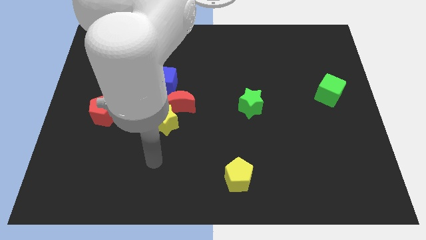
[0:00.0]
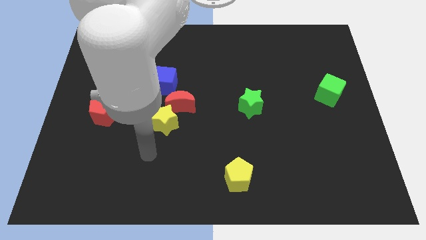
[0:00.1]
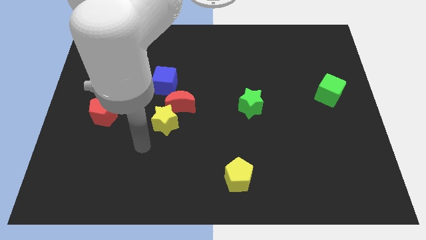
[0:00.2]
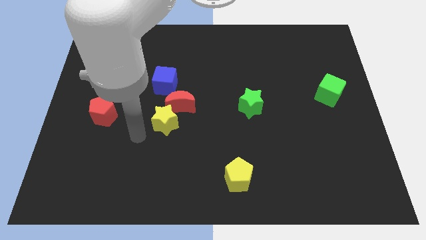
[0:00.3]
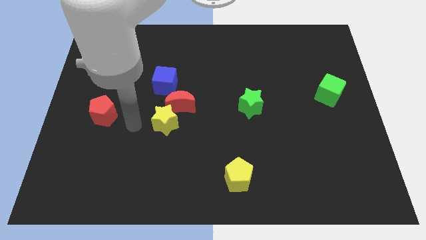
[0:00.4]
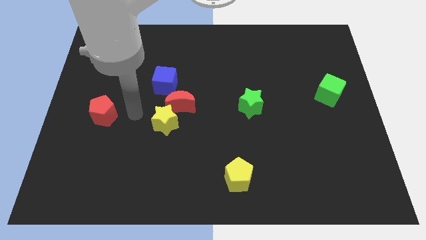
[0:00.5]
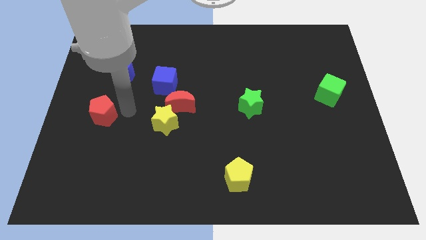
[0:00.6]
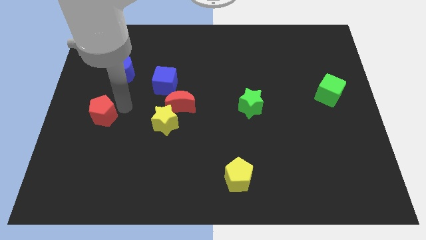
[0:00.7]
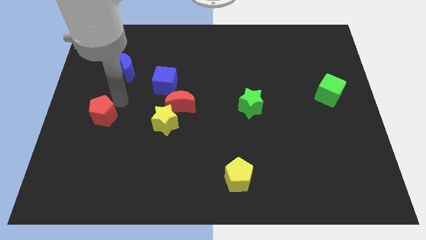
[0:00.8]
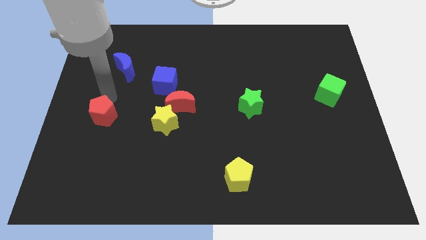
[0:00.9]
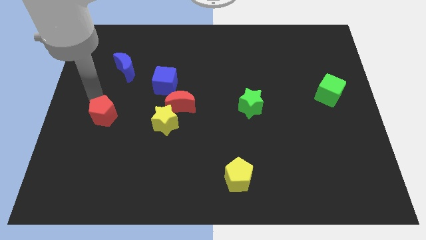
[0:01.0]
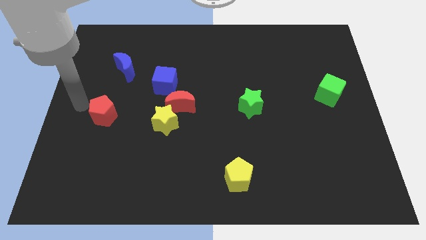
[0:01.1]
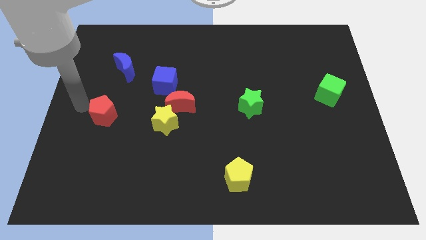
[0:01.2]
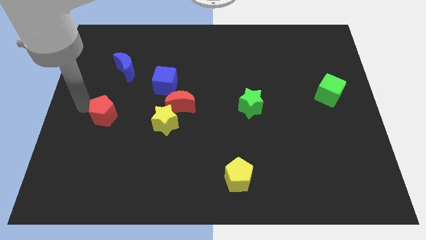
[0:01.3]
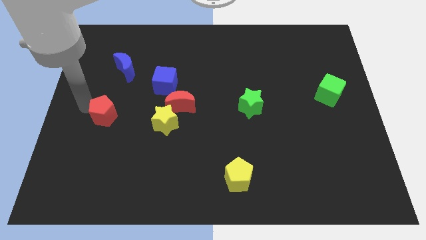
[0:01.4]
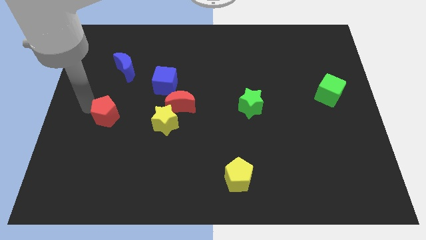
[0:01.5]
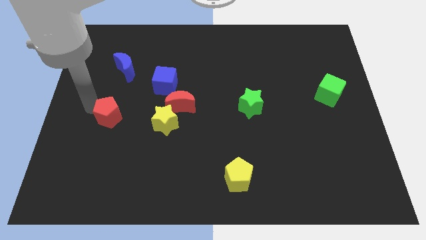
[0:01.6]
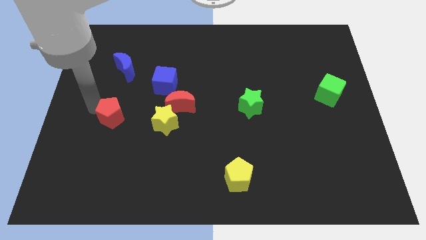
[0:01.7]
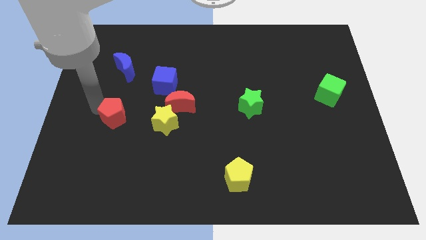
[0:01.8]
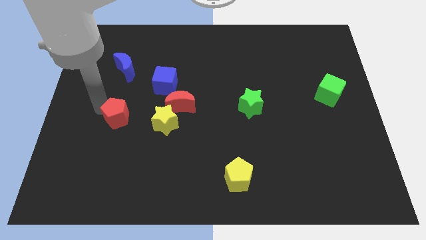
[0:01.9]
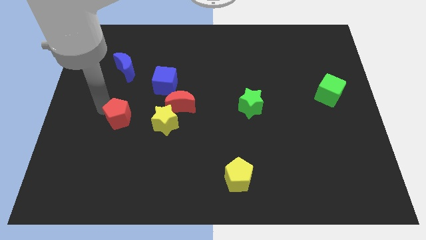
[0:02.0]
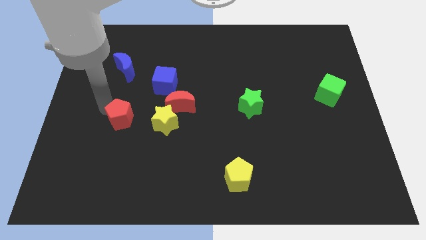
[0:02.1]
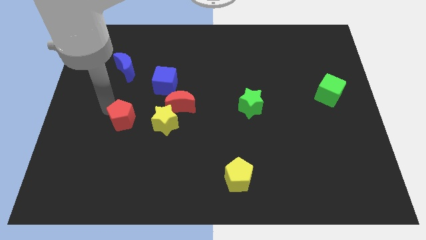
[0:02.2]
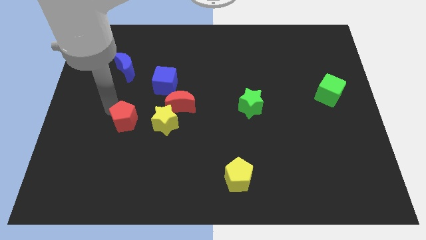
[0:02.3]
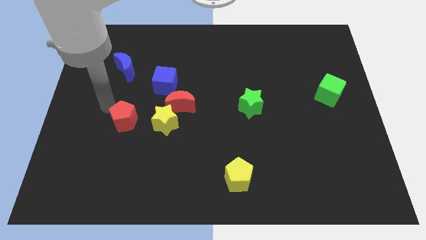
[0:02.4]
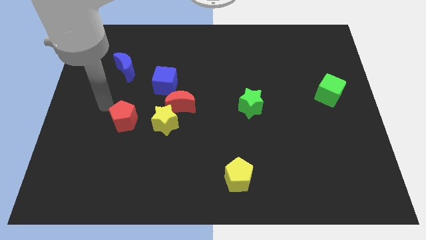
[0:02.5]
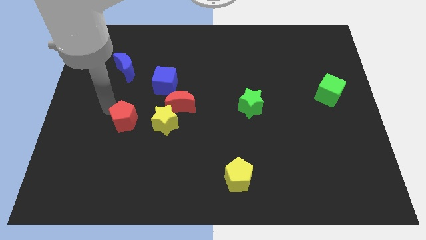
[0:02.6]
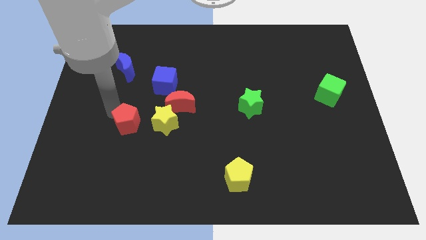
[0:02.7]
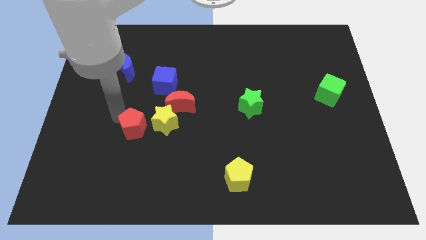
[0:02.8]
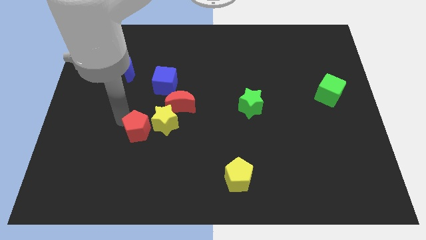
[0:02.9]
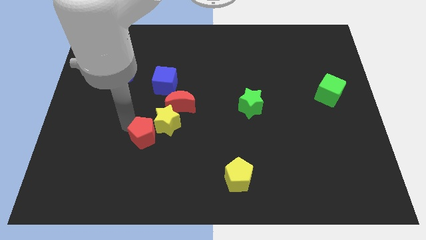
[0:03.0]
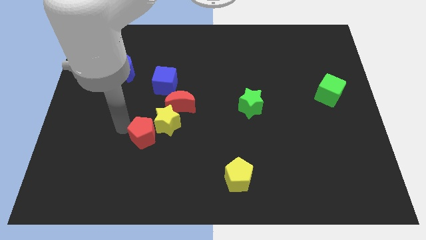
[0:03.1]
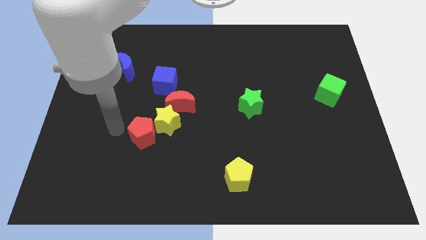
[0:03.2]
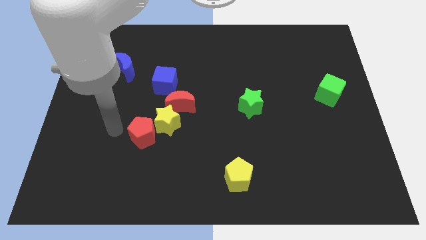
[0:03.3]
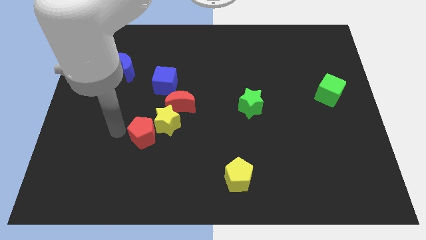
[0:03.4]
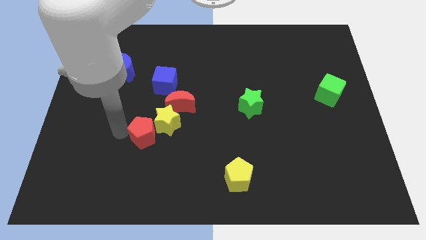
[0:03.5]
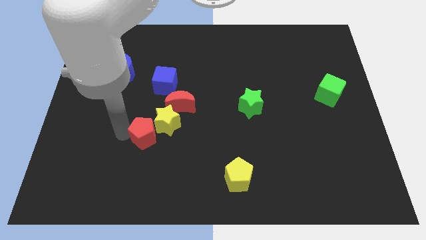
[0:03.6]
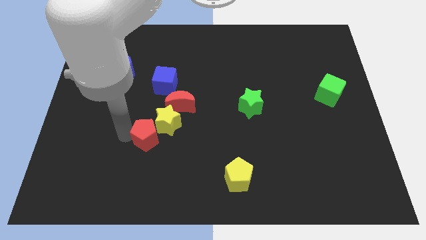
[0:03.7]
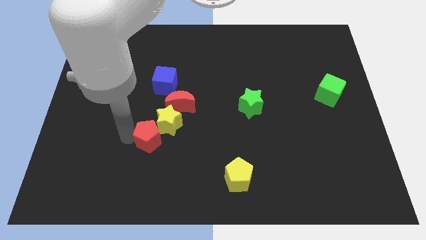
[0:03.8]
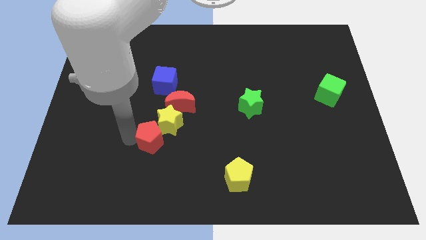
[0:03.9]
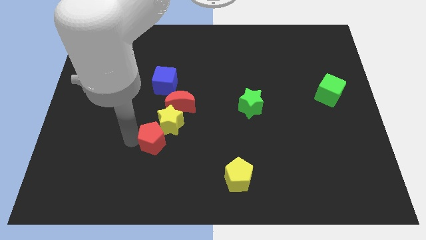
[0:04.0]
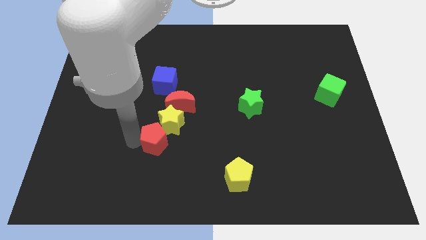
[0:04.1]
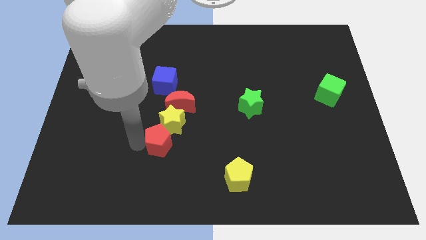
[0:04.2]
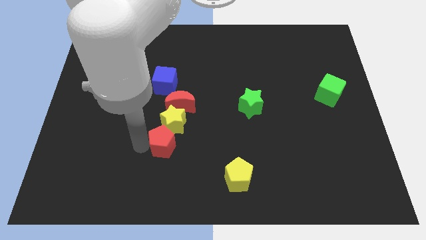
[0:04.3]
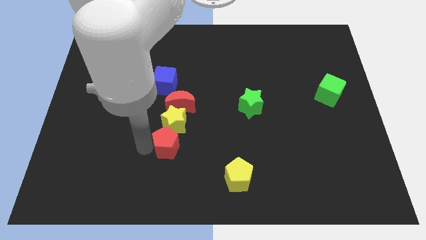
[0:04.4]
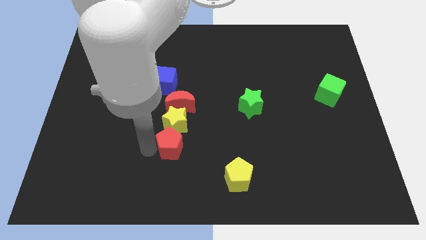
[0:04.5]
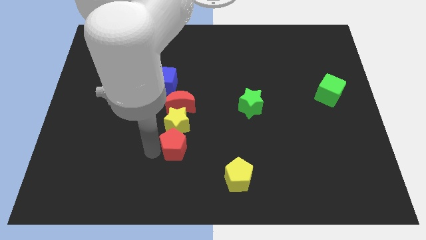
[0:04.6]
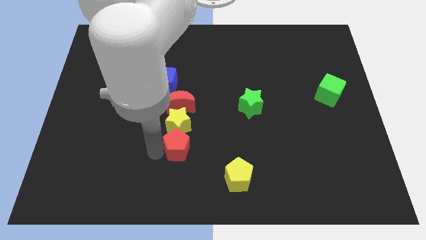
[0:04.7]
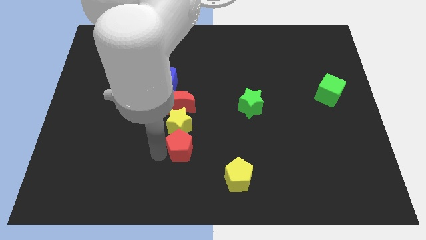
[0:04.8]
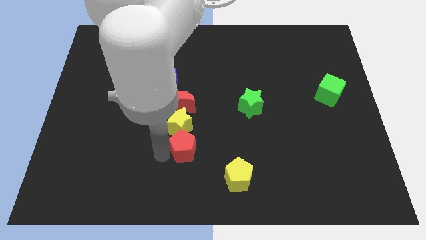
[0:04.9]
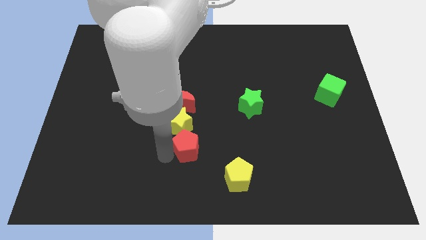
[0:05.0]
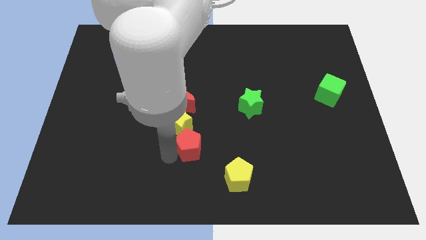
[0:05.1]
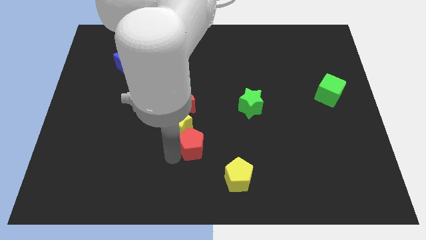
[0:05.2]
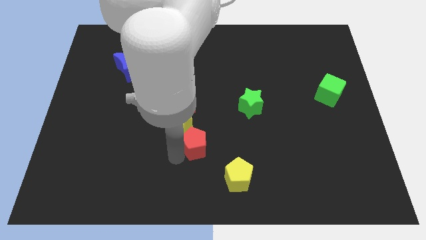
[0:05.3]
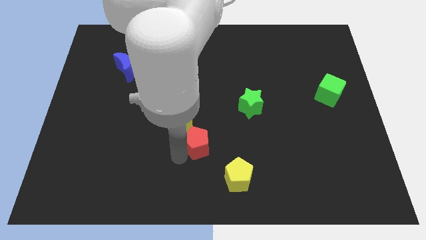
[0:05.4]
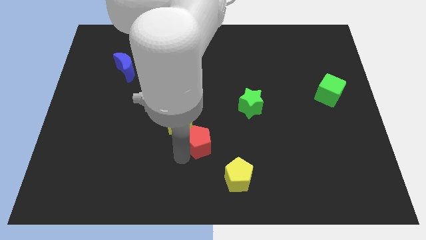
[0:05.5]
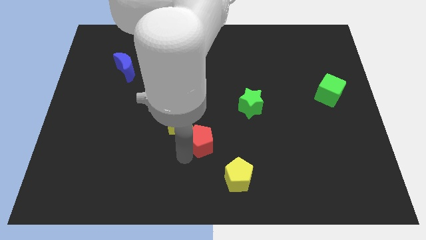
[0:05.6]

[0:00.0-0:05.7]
push the red pentagon to the middle of the board

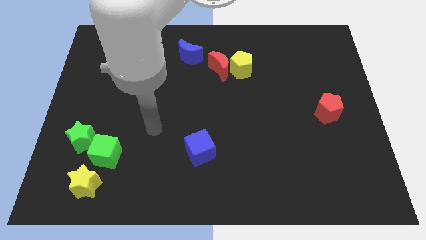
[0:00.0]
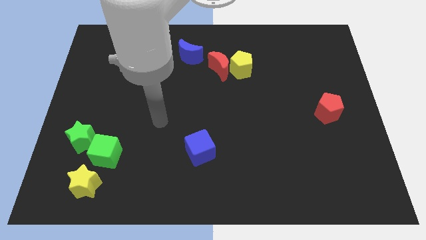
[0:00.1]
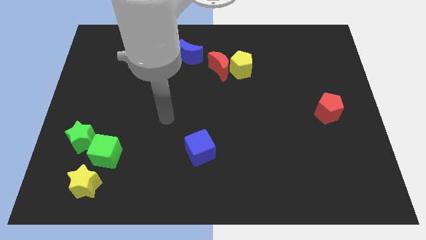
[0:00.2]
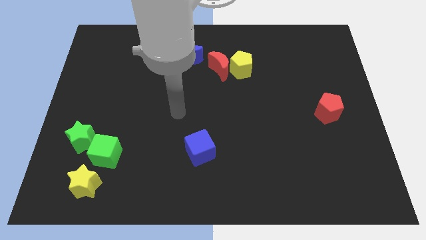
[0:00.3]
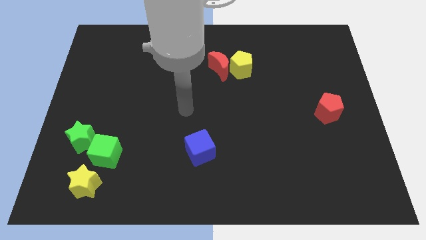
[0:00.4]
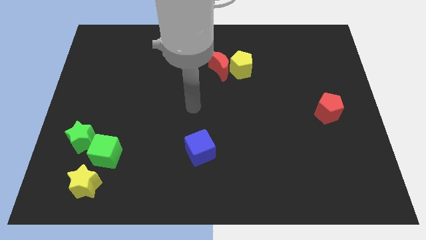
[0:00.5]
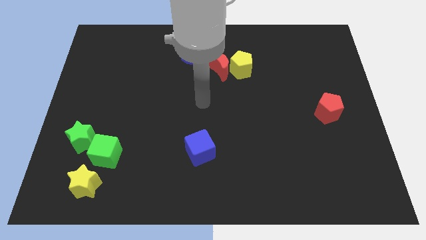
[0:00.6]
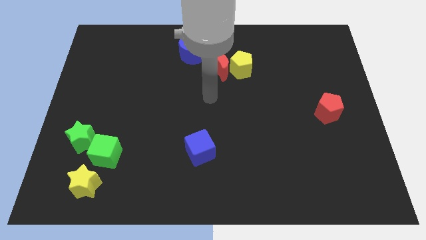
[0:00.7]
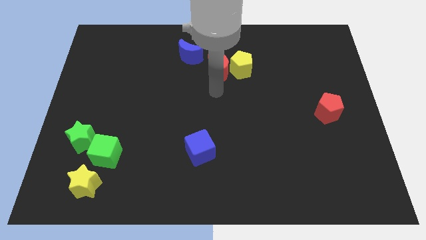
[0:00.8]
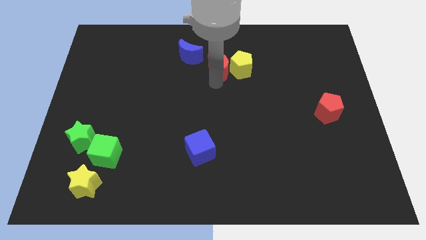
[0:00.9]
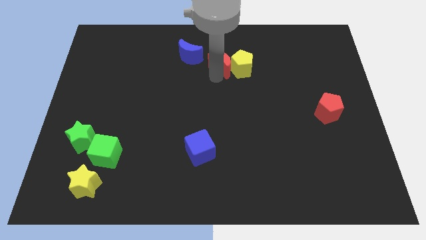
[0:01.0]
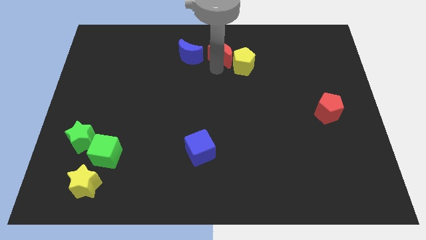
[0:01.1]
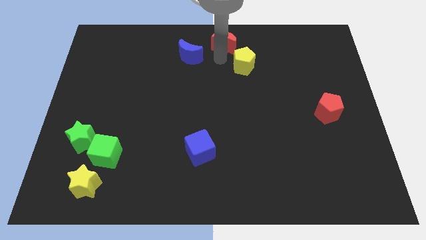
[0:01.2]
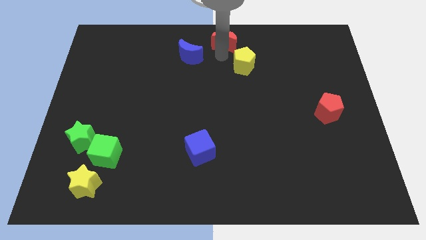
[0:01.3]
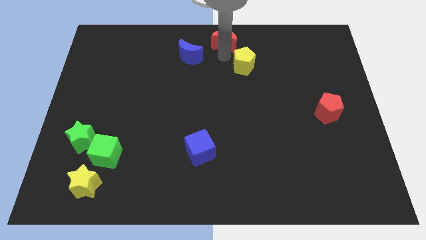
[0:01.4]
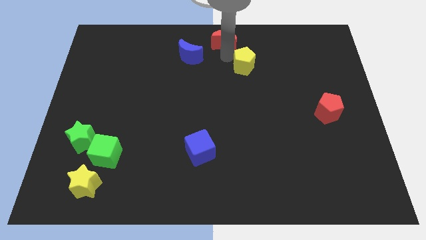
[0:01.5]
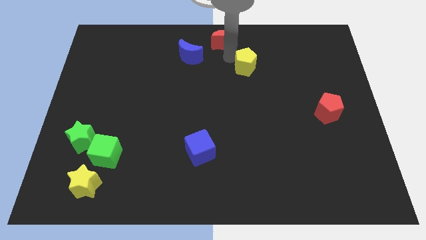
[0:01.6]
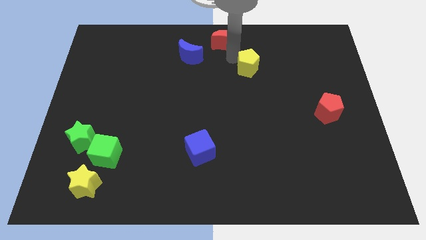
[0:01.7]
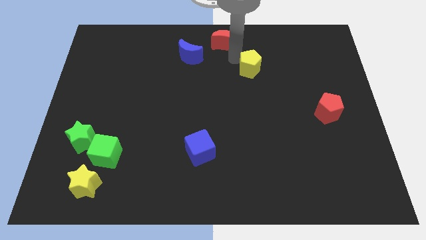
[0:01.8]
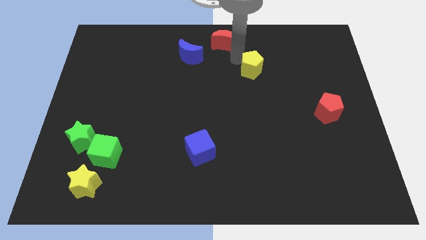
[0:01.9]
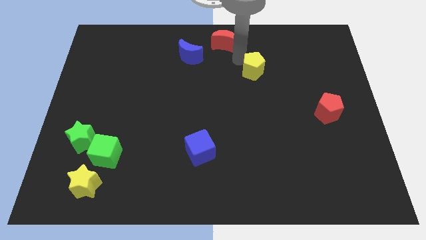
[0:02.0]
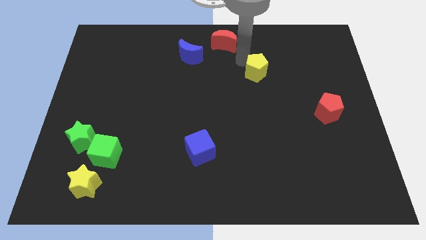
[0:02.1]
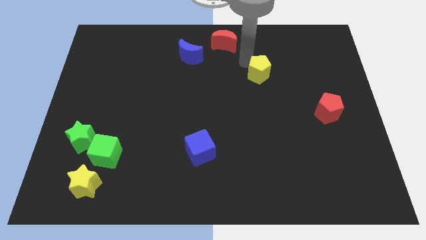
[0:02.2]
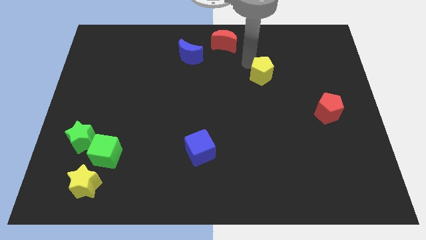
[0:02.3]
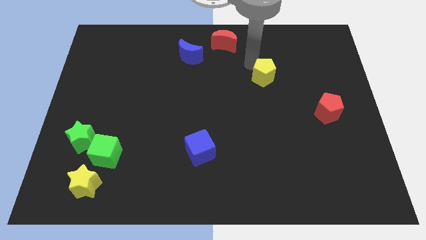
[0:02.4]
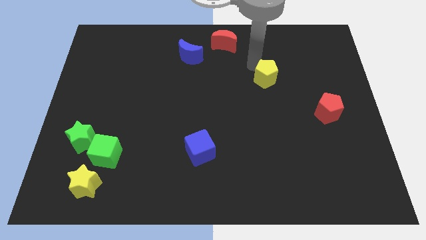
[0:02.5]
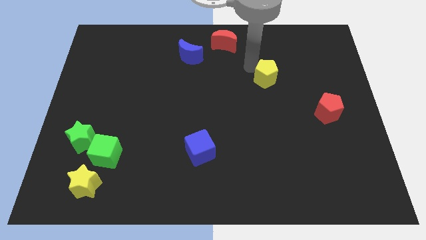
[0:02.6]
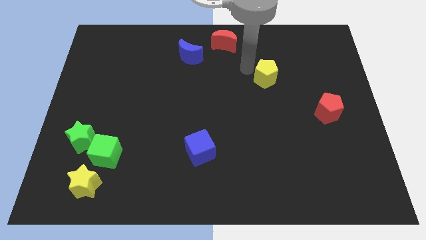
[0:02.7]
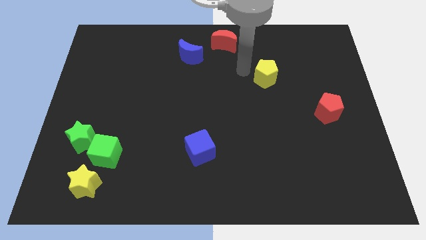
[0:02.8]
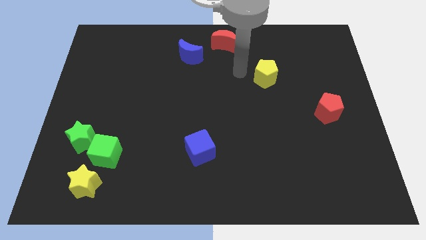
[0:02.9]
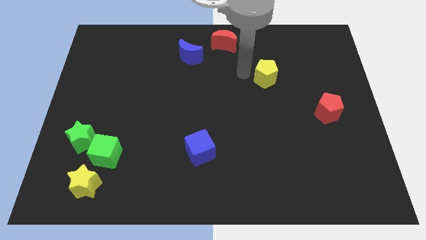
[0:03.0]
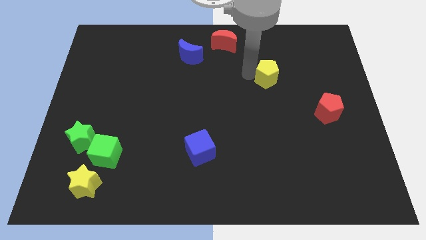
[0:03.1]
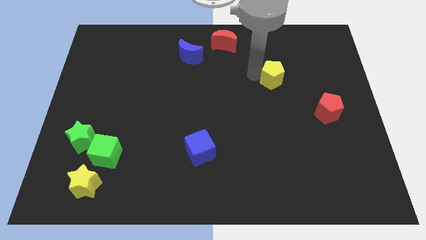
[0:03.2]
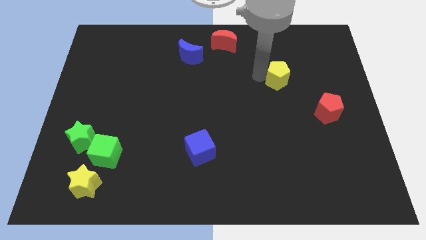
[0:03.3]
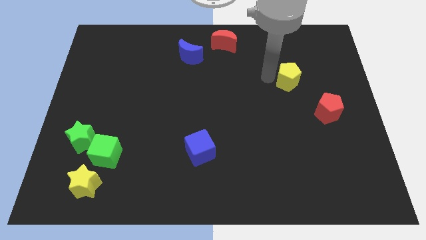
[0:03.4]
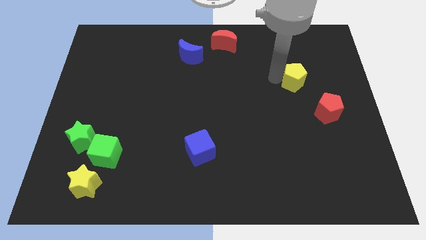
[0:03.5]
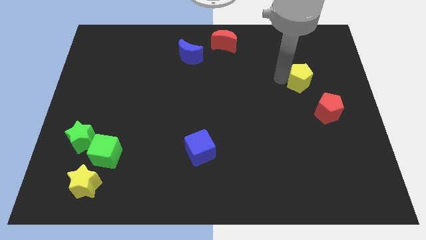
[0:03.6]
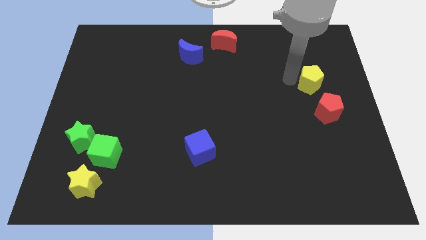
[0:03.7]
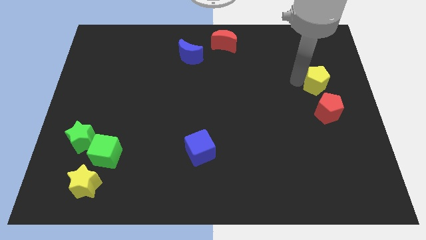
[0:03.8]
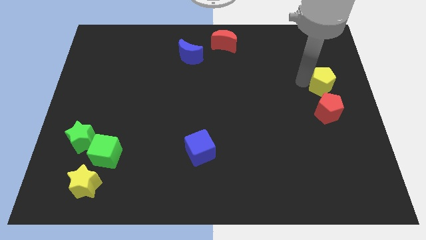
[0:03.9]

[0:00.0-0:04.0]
slide the yellow pentagon to the center right
